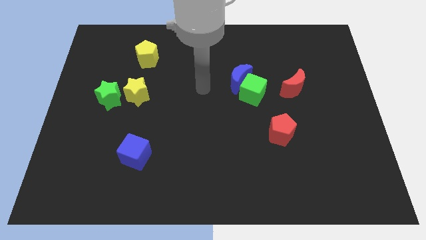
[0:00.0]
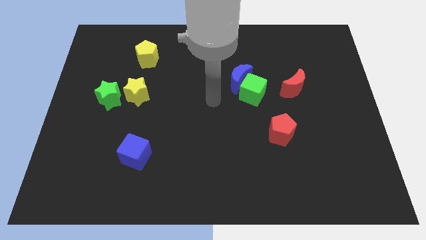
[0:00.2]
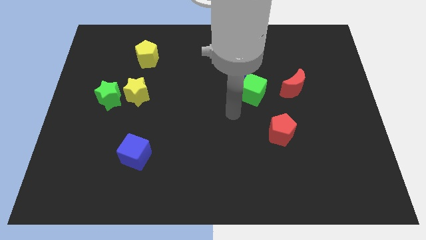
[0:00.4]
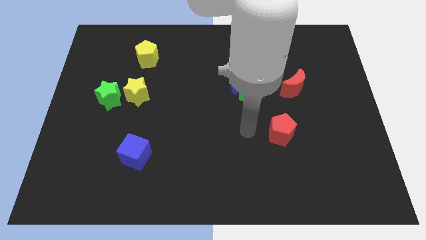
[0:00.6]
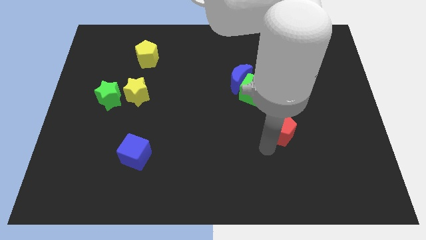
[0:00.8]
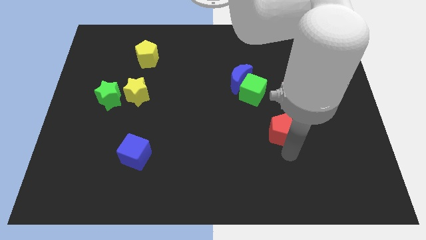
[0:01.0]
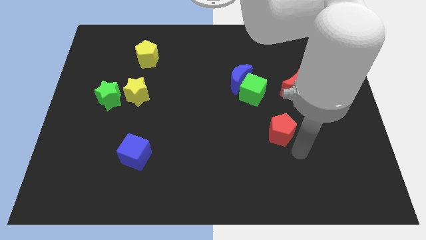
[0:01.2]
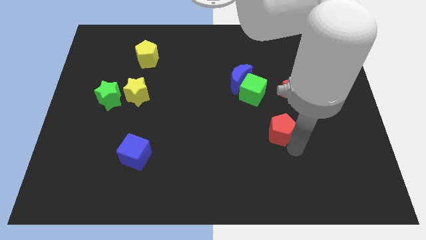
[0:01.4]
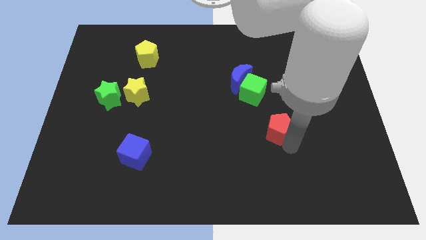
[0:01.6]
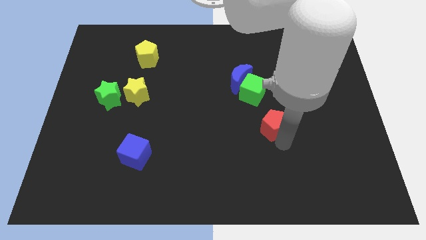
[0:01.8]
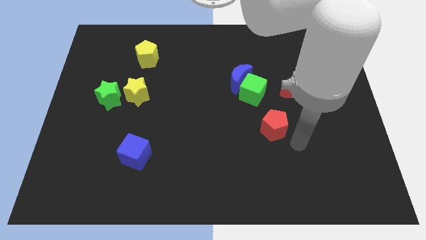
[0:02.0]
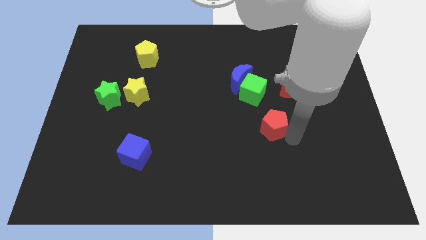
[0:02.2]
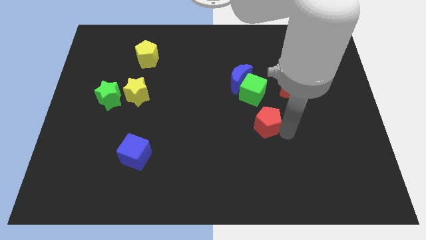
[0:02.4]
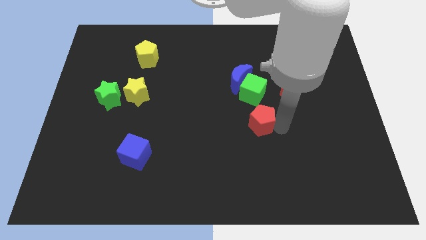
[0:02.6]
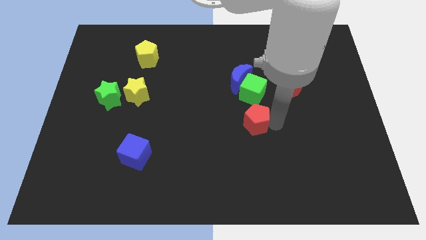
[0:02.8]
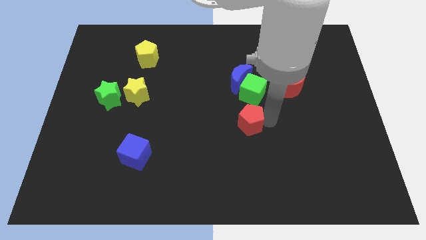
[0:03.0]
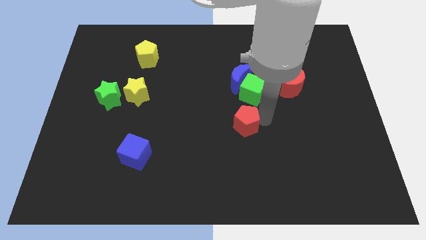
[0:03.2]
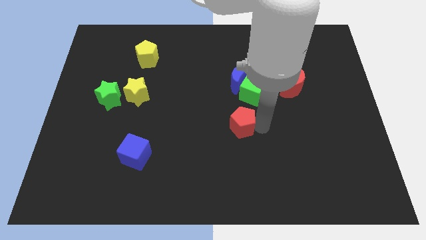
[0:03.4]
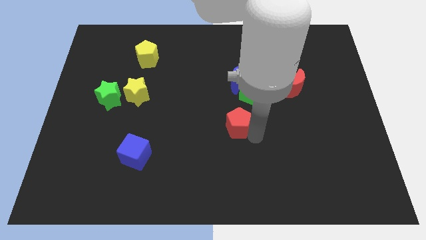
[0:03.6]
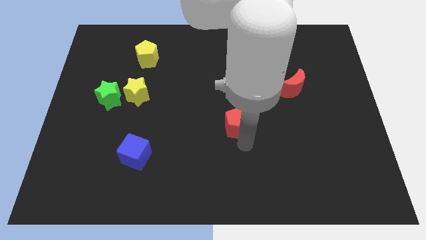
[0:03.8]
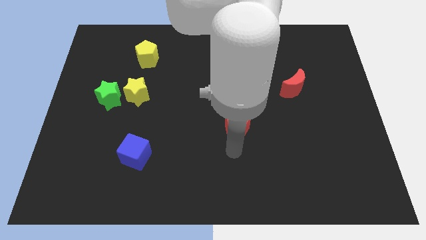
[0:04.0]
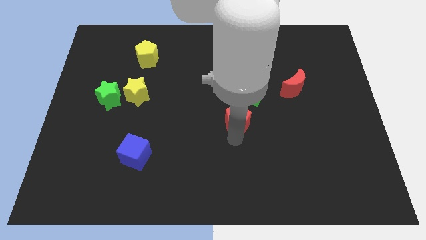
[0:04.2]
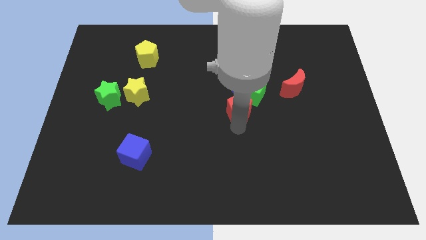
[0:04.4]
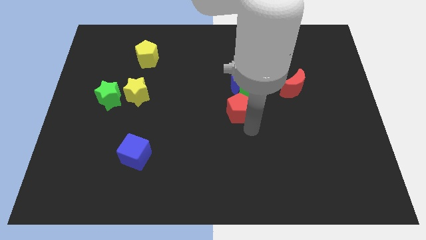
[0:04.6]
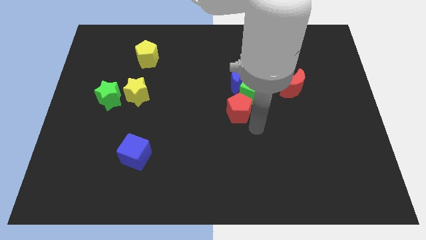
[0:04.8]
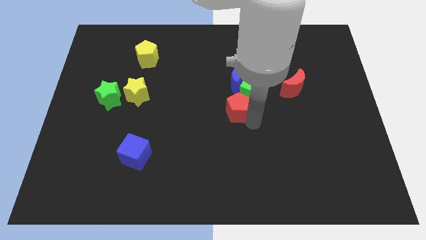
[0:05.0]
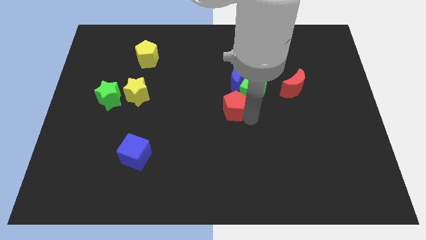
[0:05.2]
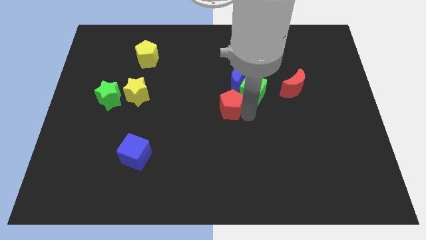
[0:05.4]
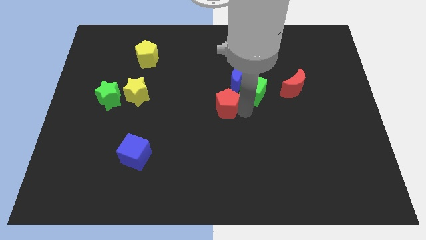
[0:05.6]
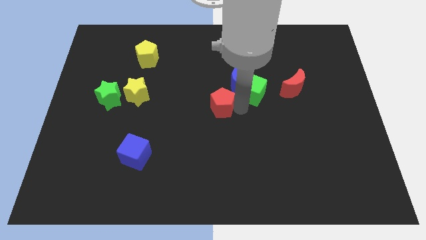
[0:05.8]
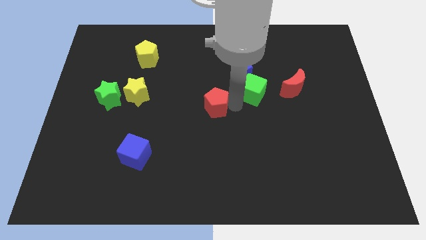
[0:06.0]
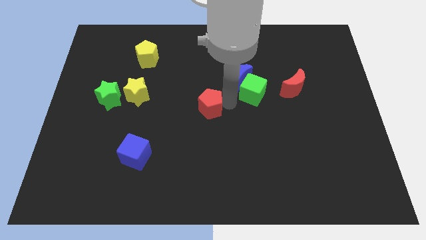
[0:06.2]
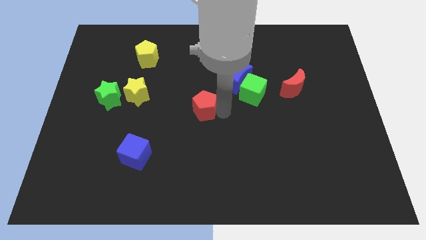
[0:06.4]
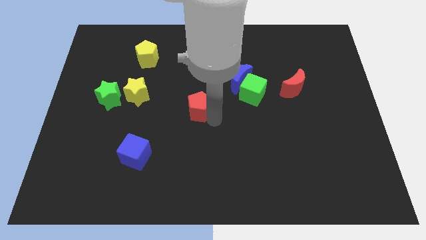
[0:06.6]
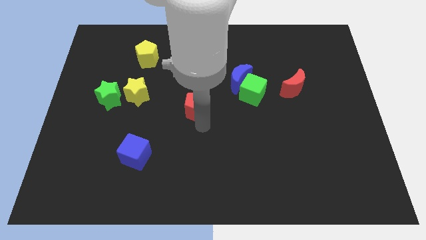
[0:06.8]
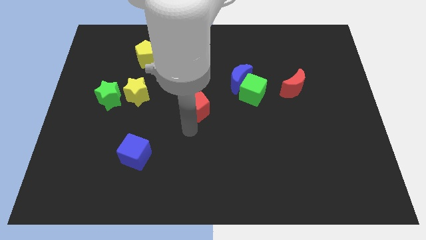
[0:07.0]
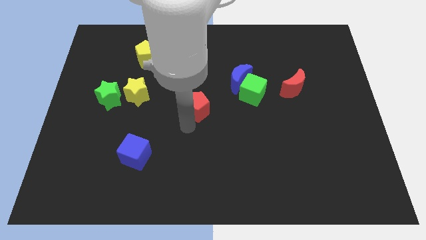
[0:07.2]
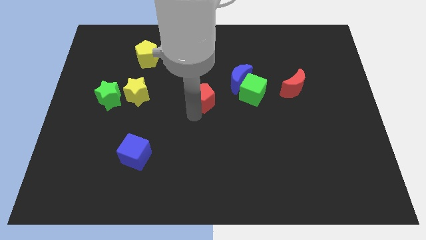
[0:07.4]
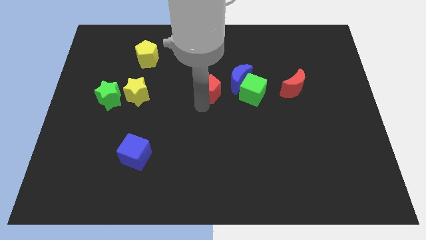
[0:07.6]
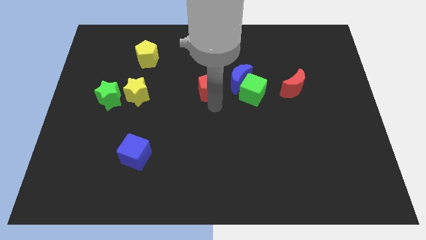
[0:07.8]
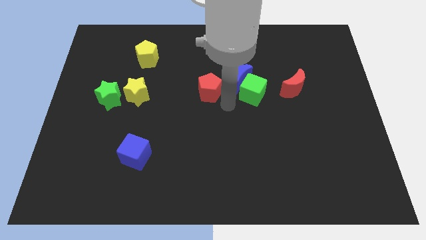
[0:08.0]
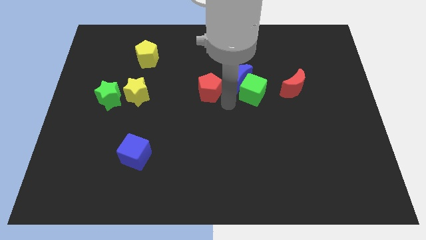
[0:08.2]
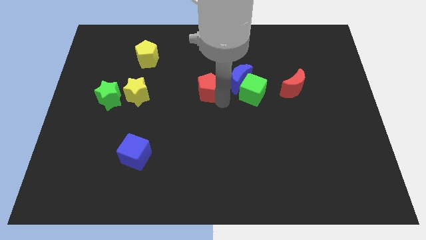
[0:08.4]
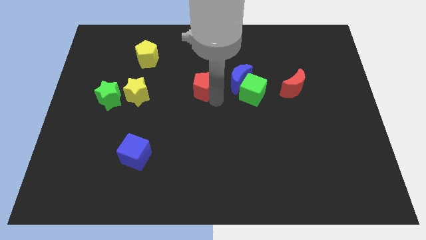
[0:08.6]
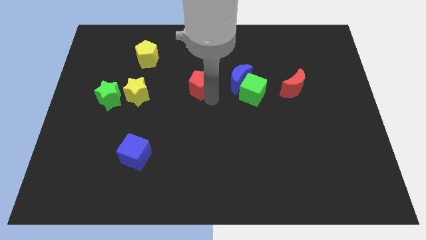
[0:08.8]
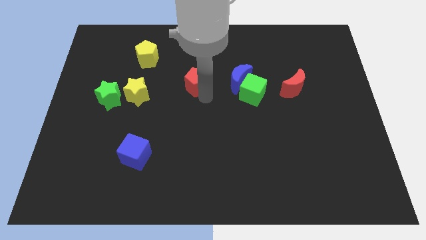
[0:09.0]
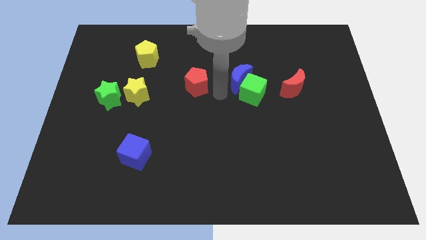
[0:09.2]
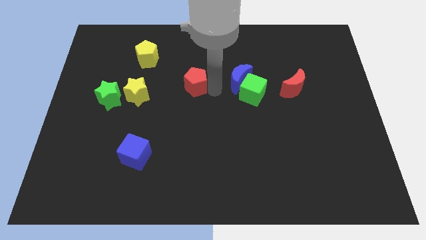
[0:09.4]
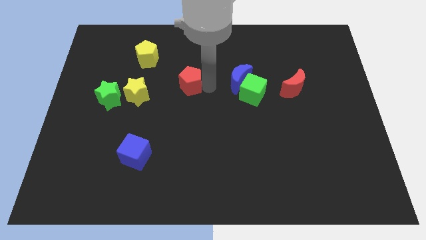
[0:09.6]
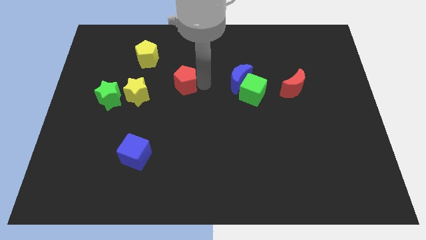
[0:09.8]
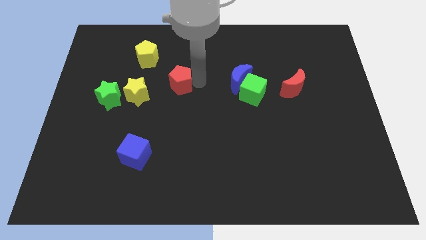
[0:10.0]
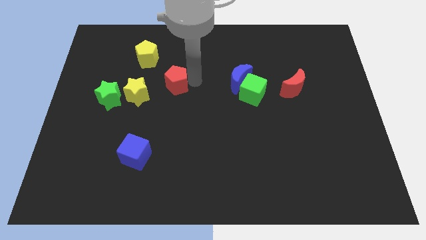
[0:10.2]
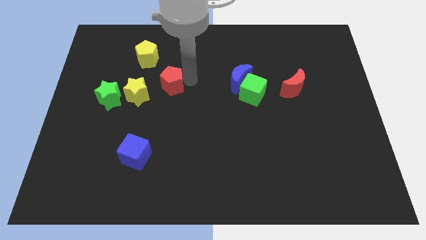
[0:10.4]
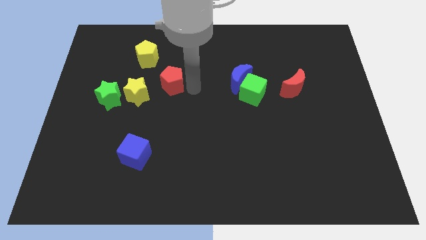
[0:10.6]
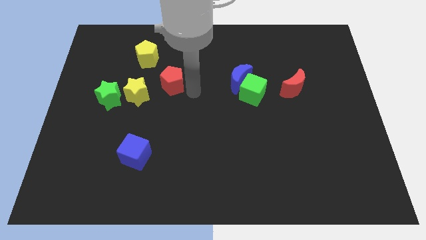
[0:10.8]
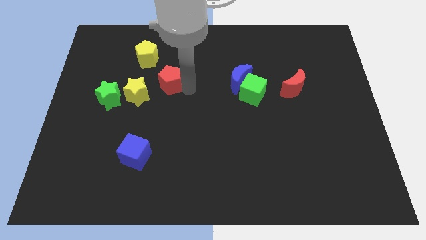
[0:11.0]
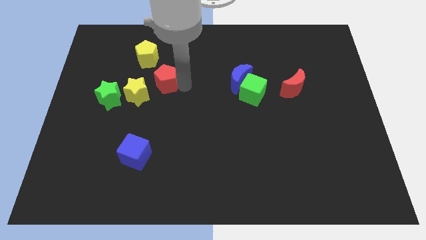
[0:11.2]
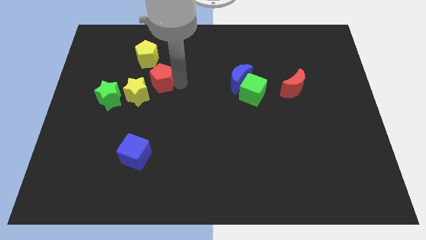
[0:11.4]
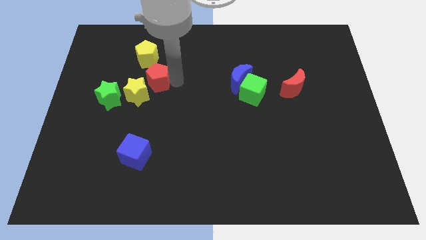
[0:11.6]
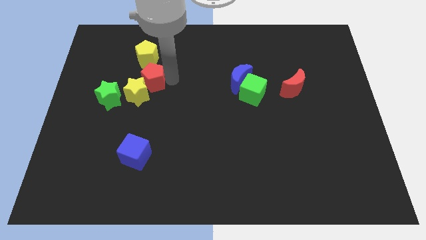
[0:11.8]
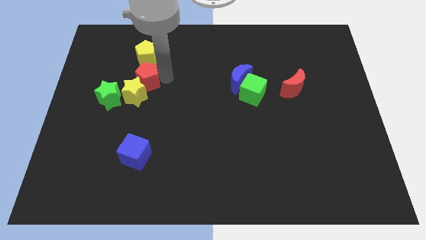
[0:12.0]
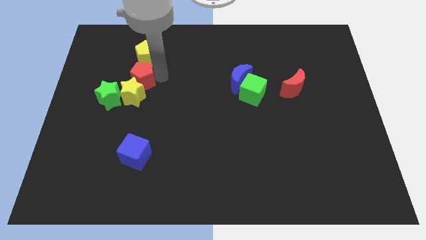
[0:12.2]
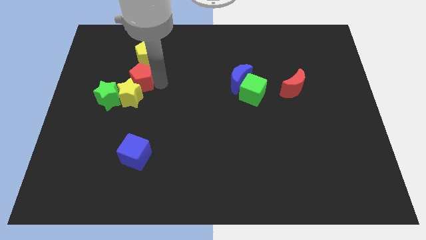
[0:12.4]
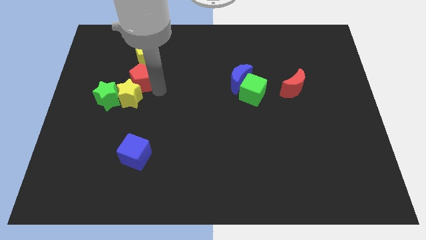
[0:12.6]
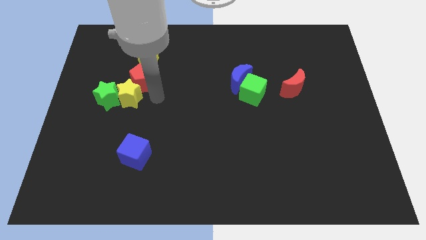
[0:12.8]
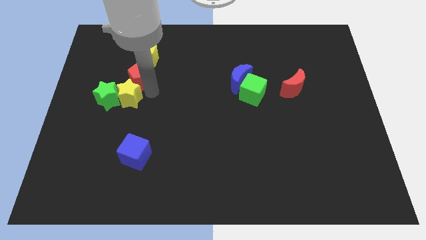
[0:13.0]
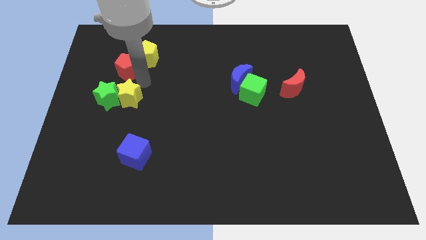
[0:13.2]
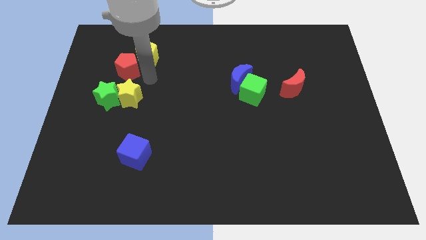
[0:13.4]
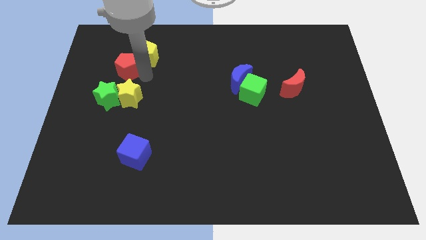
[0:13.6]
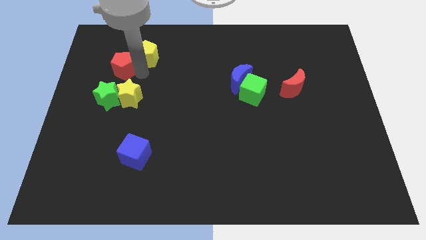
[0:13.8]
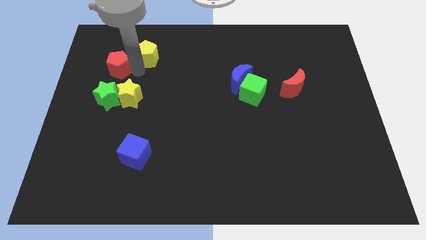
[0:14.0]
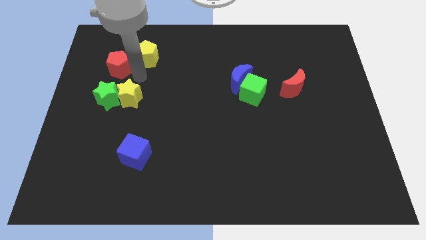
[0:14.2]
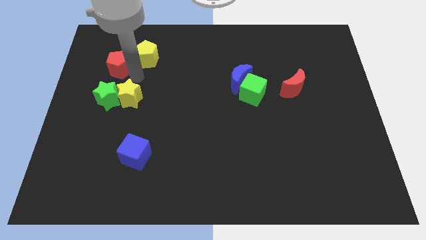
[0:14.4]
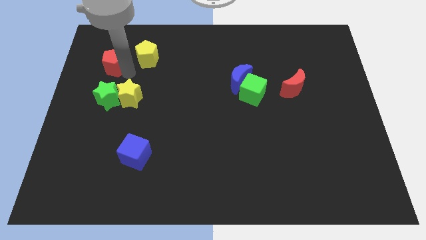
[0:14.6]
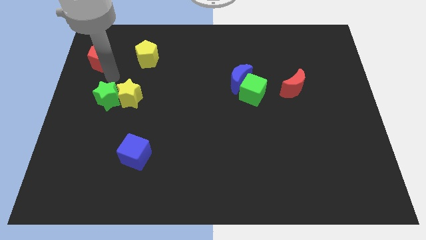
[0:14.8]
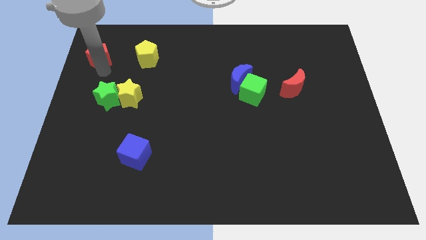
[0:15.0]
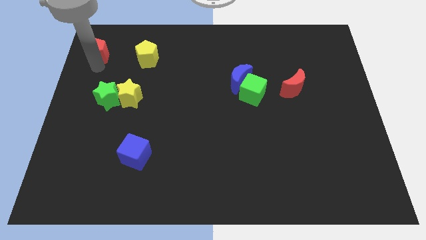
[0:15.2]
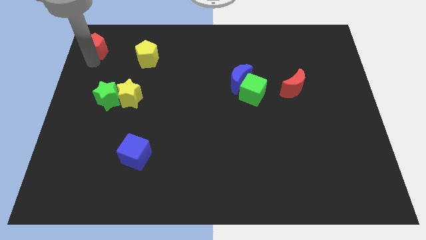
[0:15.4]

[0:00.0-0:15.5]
push the red pentagon to the top left corner
